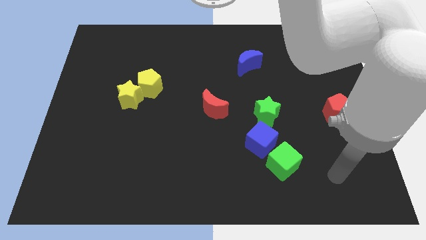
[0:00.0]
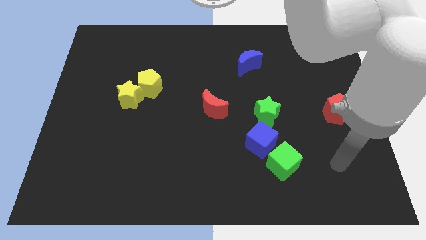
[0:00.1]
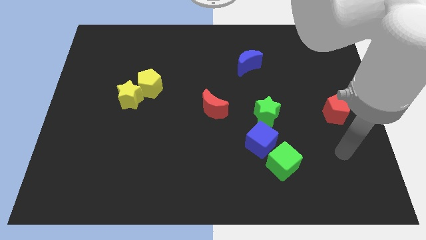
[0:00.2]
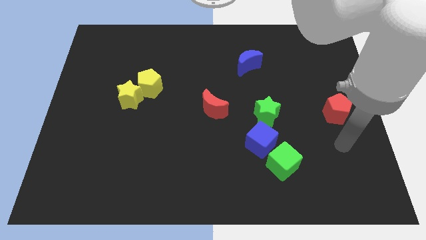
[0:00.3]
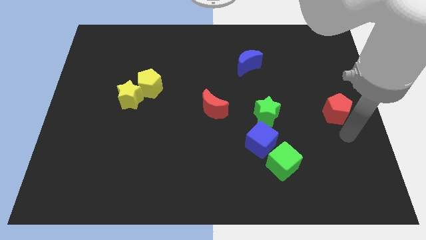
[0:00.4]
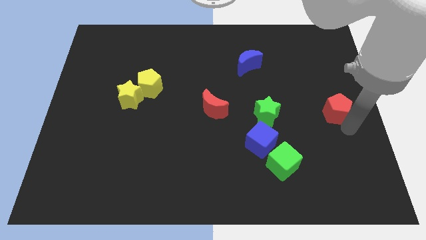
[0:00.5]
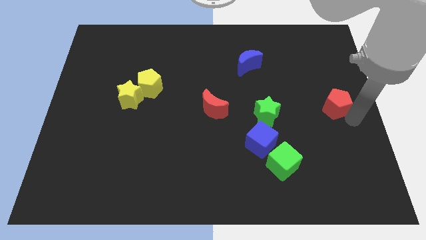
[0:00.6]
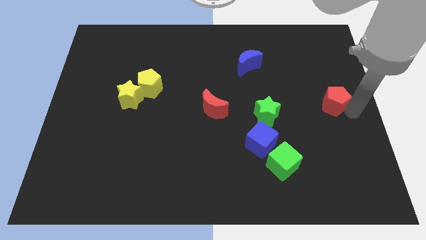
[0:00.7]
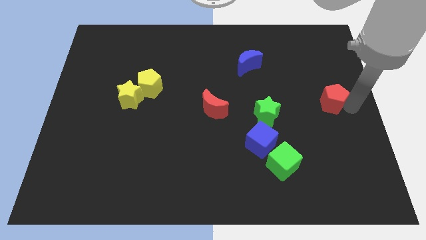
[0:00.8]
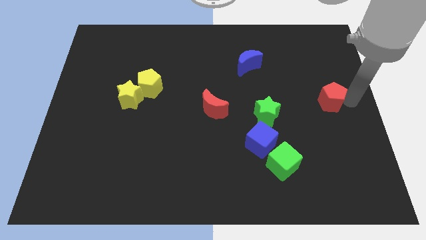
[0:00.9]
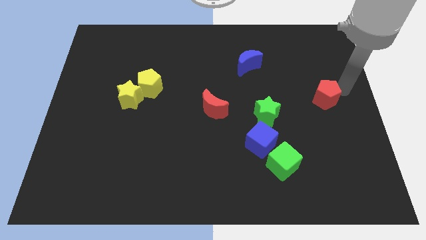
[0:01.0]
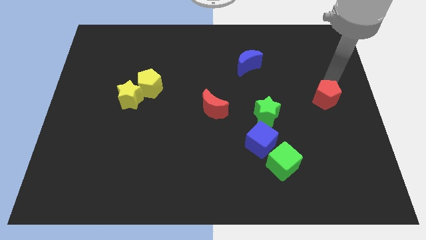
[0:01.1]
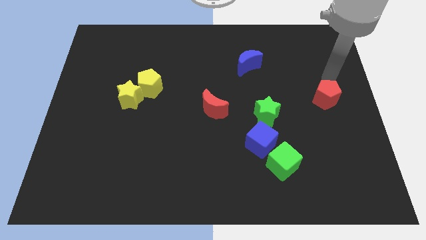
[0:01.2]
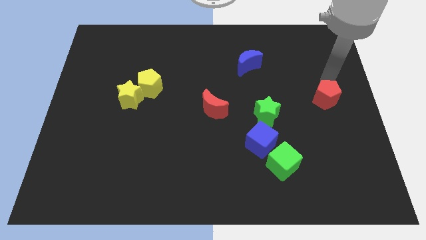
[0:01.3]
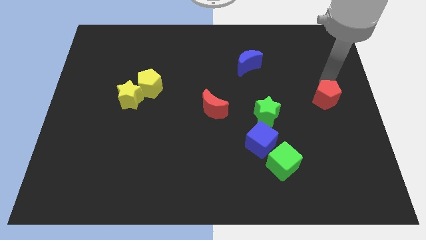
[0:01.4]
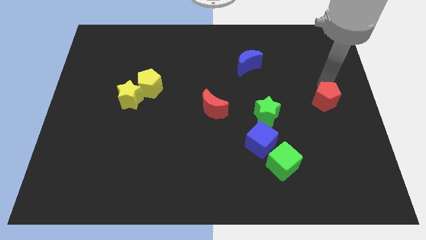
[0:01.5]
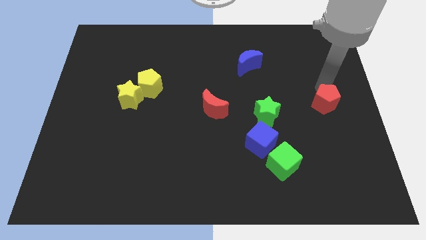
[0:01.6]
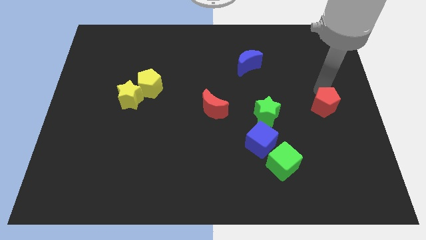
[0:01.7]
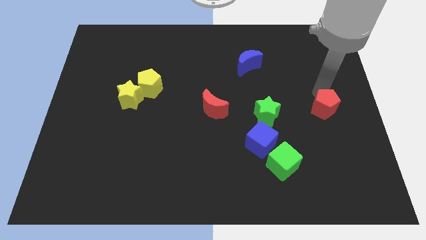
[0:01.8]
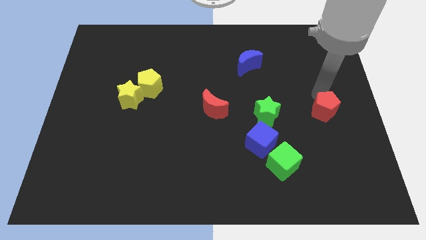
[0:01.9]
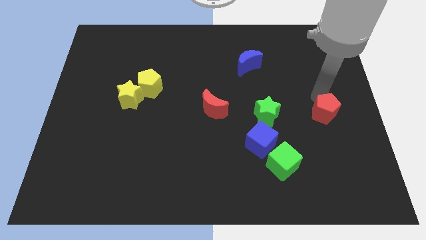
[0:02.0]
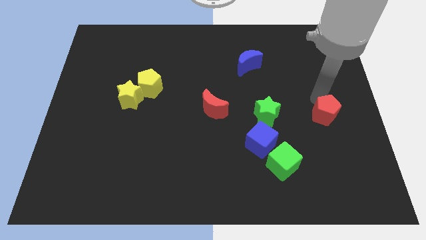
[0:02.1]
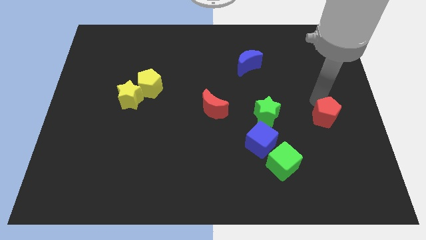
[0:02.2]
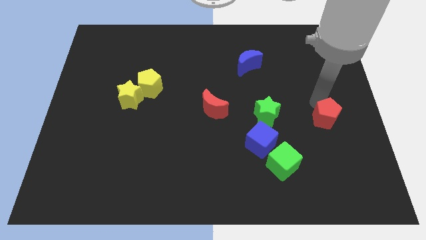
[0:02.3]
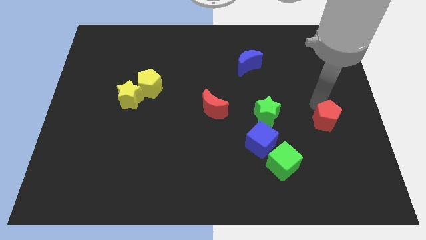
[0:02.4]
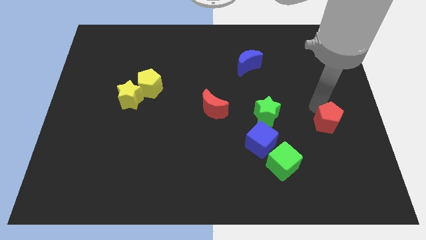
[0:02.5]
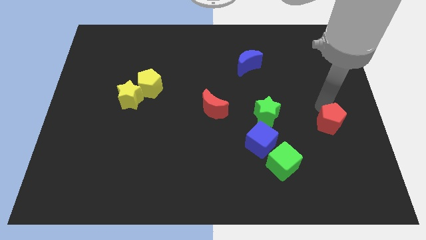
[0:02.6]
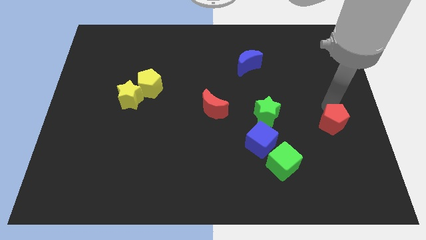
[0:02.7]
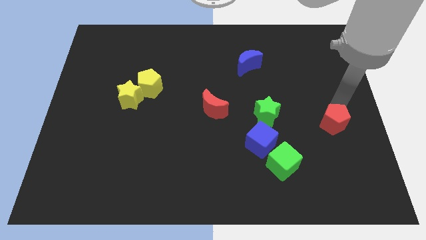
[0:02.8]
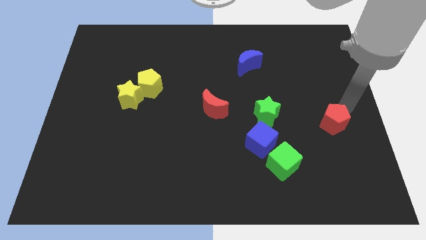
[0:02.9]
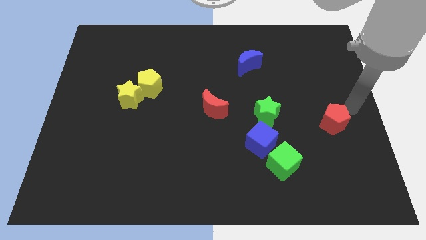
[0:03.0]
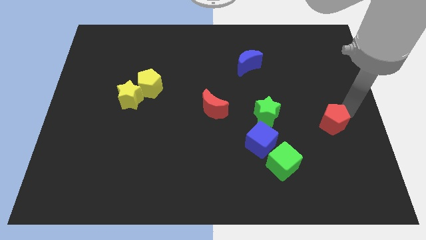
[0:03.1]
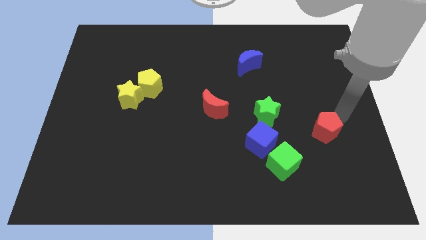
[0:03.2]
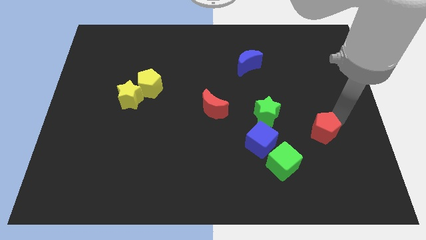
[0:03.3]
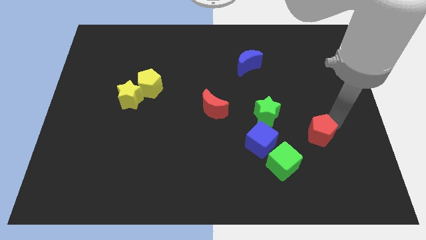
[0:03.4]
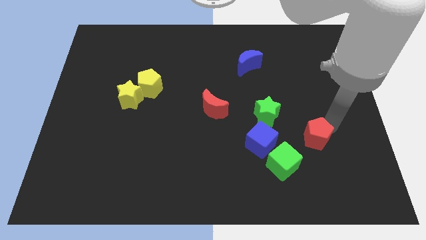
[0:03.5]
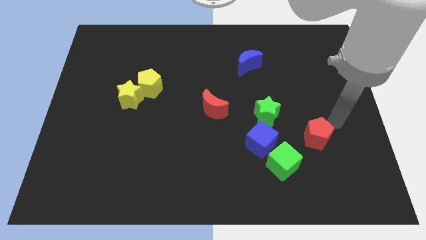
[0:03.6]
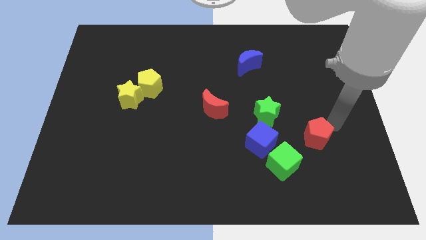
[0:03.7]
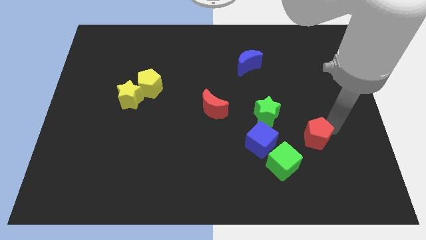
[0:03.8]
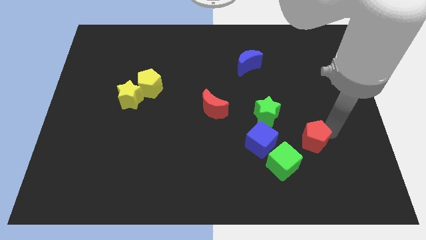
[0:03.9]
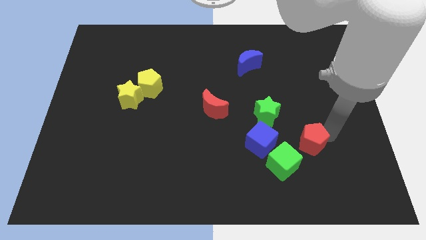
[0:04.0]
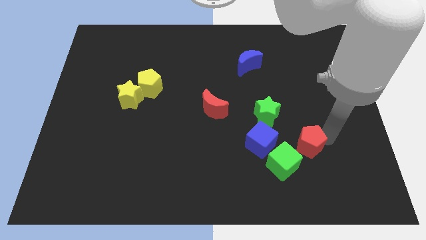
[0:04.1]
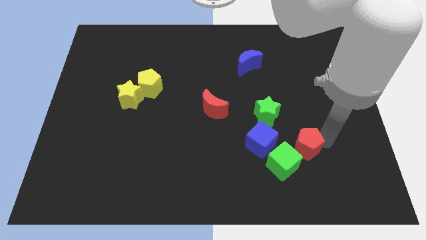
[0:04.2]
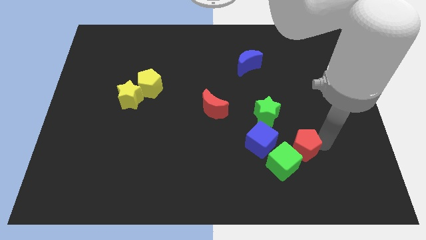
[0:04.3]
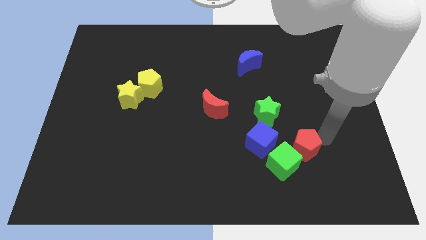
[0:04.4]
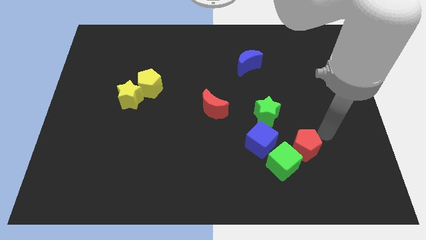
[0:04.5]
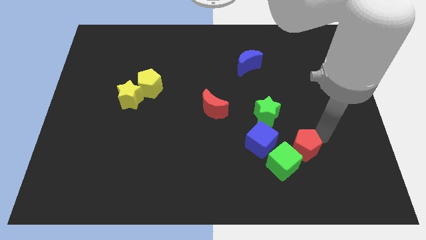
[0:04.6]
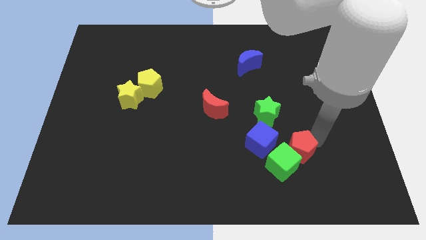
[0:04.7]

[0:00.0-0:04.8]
slide the red pentagon to the green cube

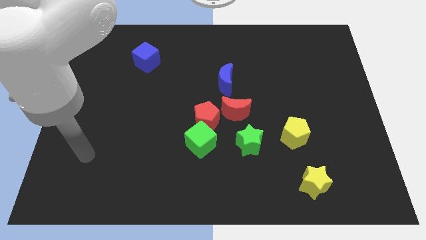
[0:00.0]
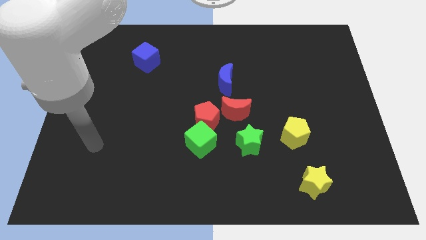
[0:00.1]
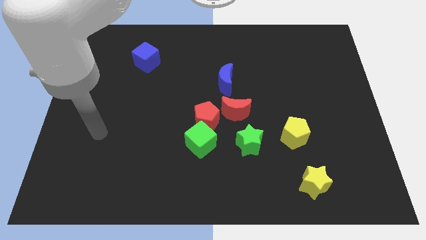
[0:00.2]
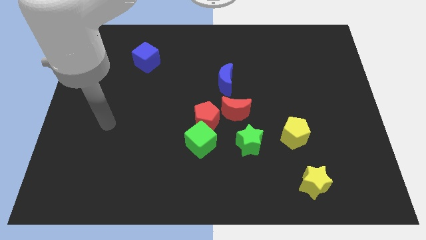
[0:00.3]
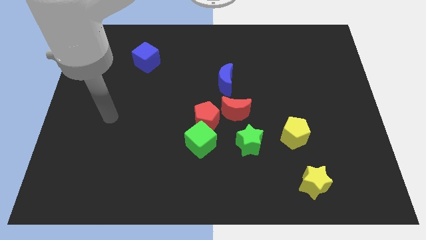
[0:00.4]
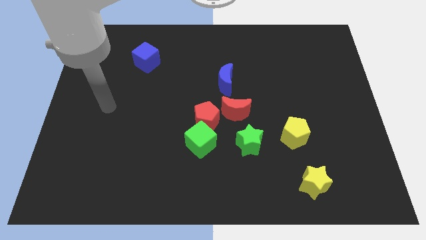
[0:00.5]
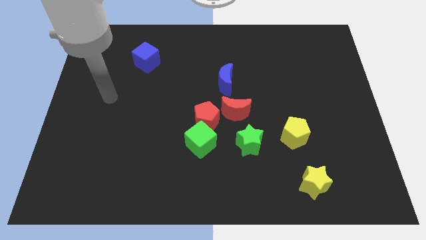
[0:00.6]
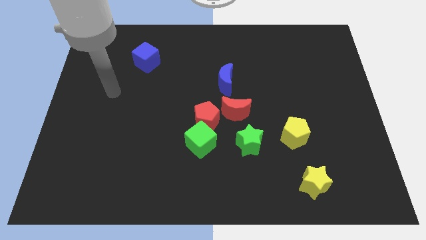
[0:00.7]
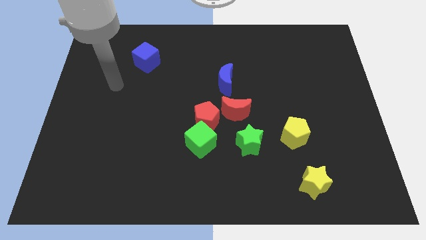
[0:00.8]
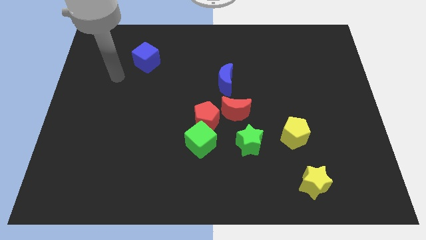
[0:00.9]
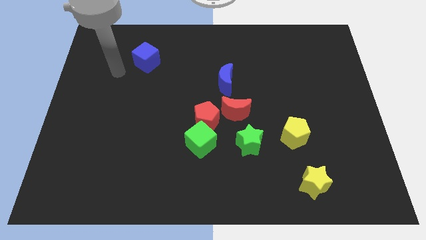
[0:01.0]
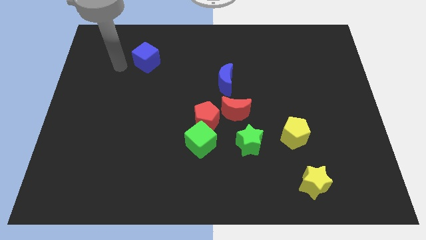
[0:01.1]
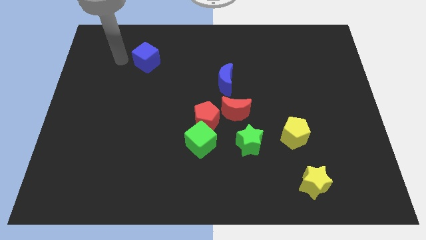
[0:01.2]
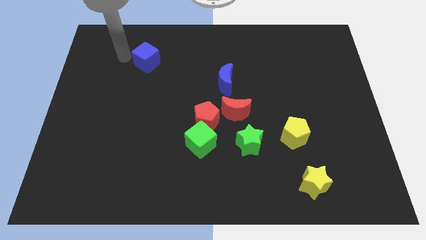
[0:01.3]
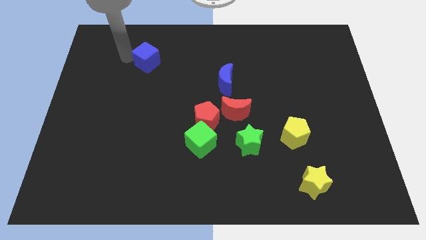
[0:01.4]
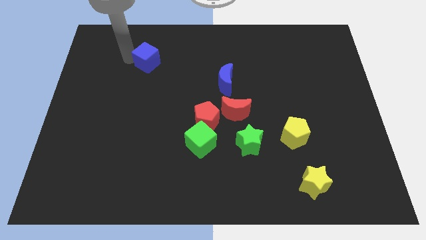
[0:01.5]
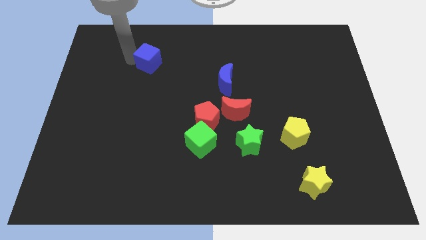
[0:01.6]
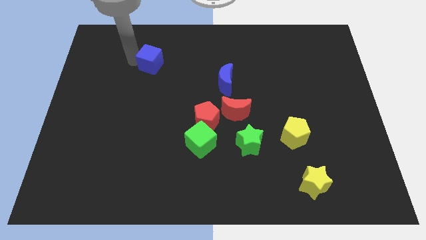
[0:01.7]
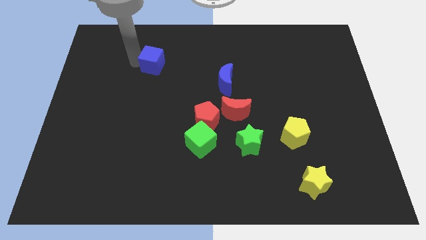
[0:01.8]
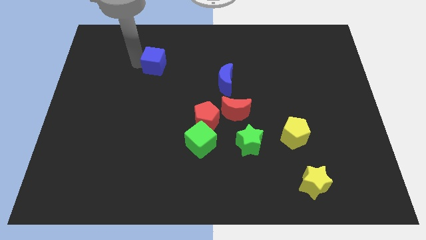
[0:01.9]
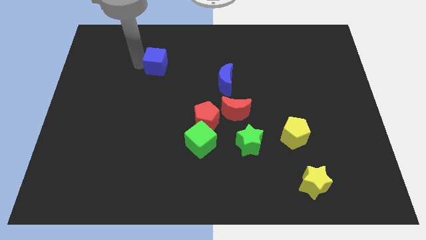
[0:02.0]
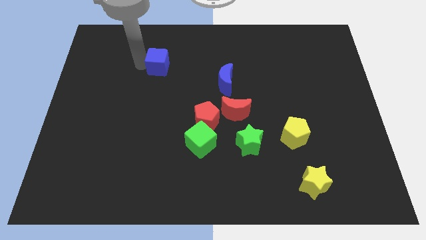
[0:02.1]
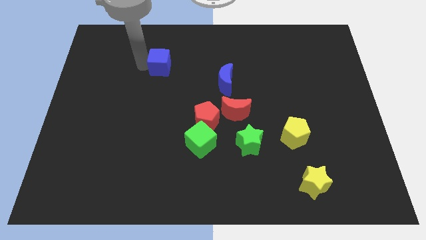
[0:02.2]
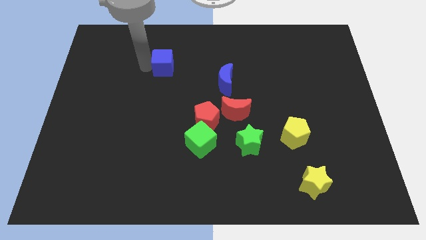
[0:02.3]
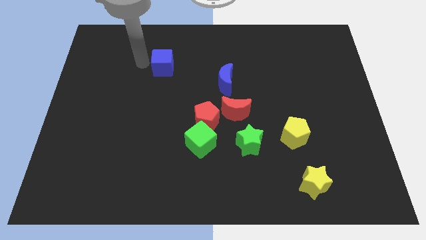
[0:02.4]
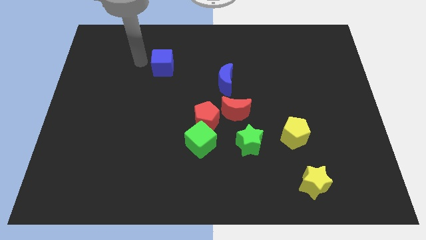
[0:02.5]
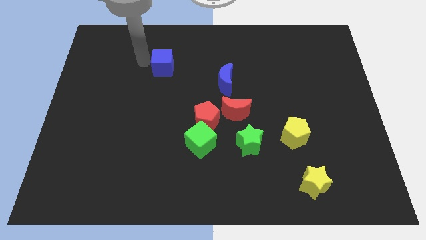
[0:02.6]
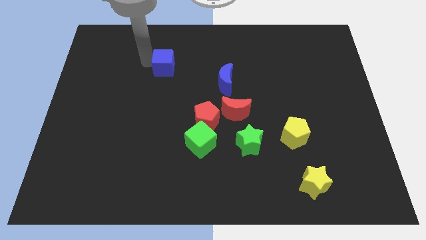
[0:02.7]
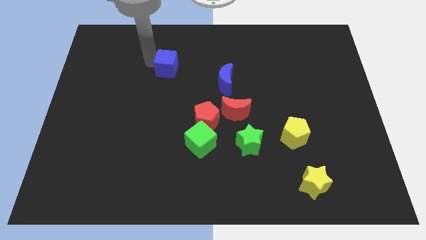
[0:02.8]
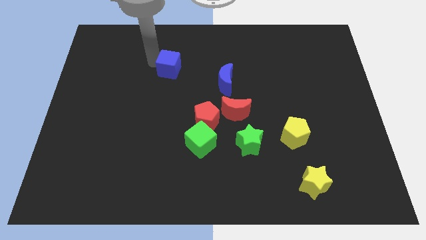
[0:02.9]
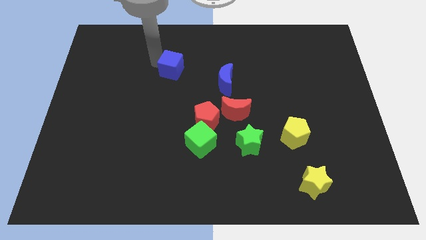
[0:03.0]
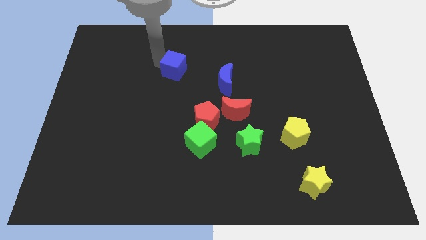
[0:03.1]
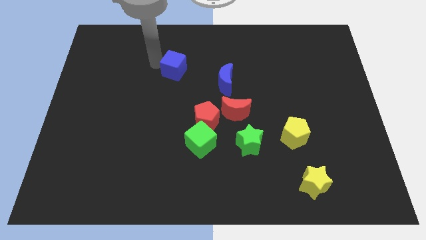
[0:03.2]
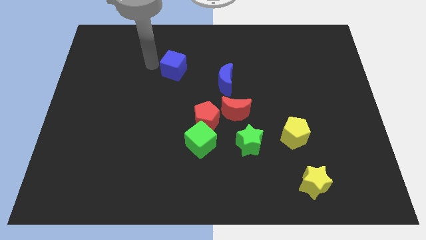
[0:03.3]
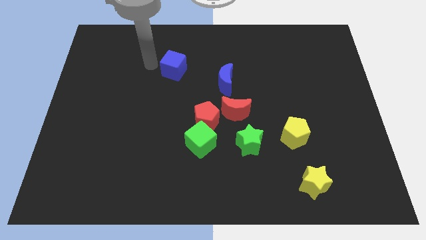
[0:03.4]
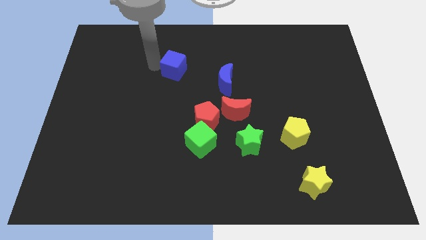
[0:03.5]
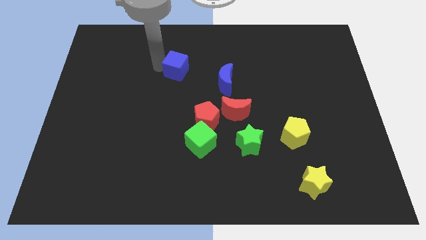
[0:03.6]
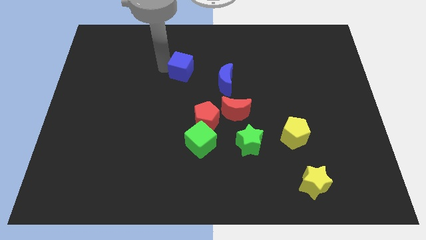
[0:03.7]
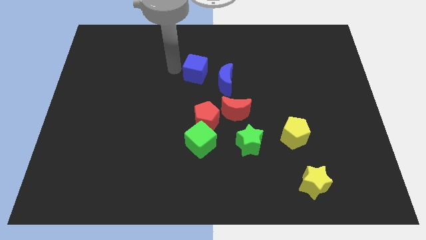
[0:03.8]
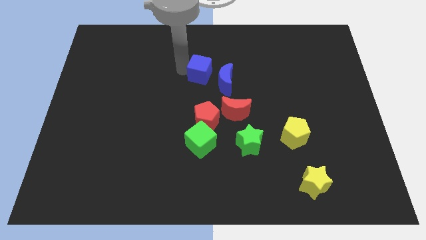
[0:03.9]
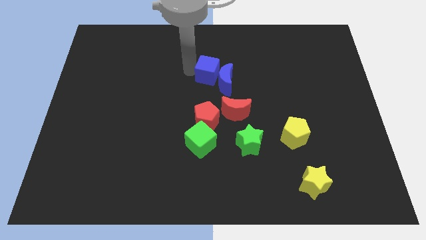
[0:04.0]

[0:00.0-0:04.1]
push the blue cube towards the blue moon
